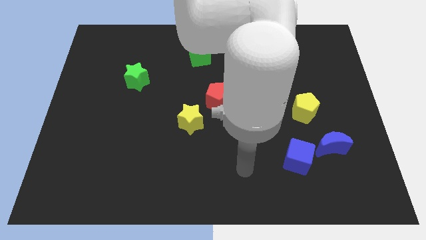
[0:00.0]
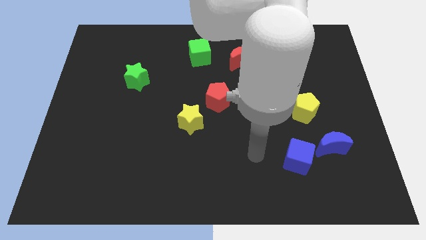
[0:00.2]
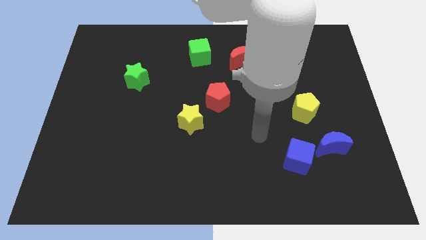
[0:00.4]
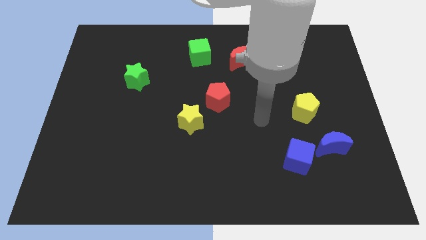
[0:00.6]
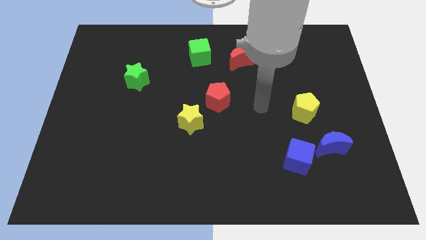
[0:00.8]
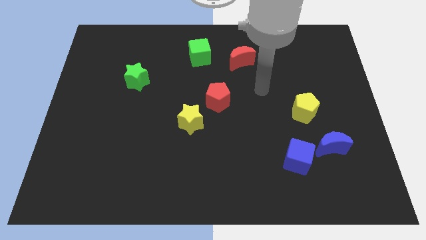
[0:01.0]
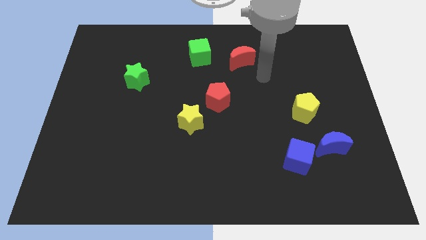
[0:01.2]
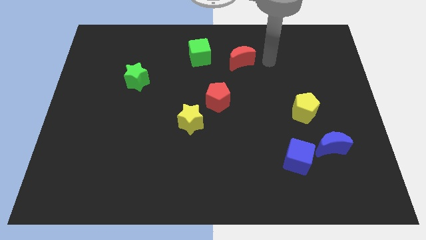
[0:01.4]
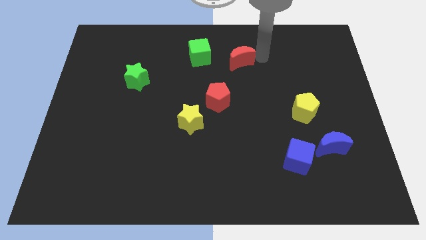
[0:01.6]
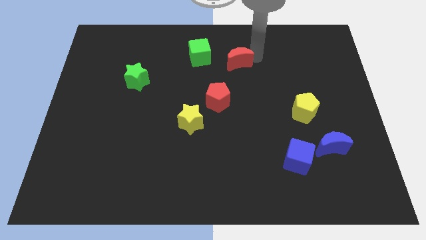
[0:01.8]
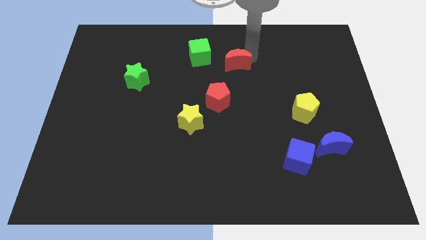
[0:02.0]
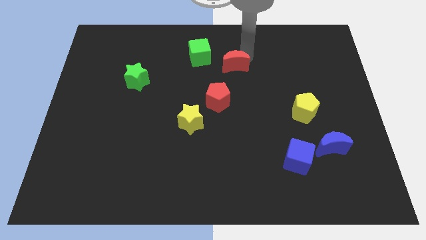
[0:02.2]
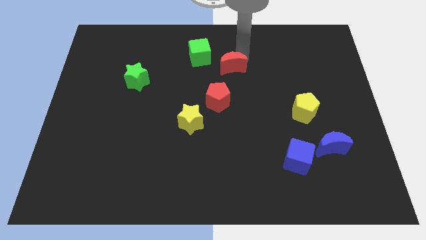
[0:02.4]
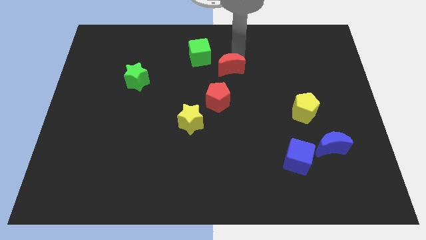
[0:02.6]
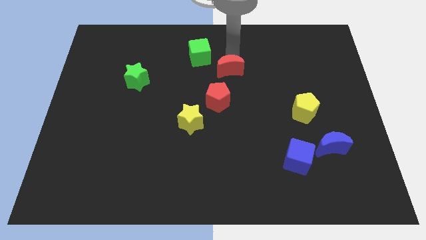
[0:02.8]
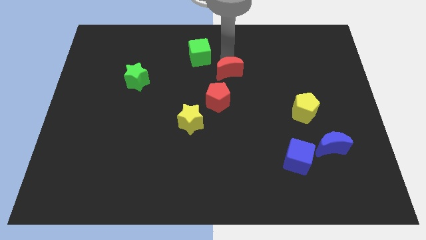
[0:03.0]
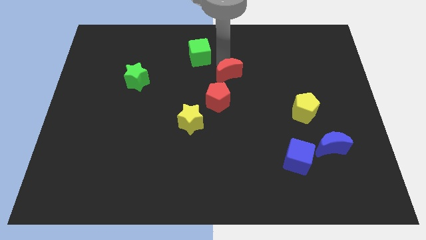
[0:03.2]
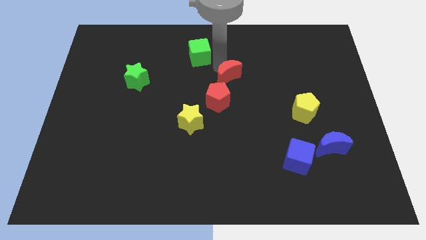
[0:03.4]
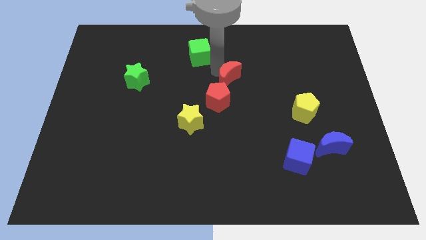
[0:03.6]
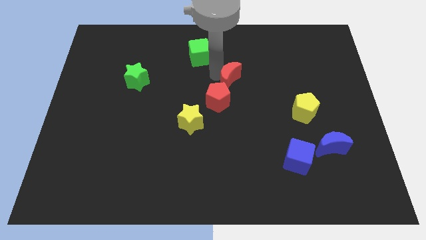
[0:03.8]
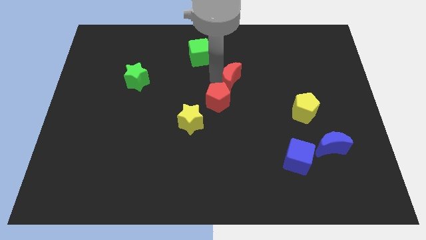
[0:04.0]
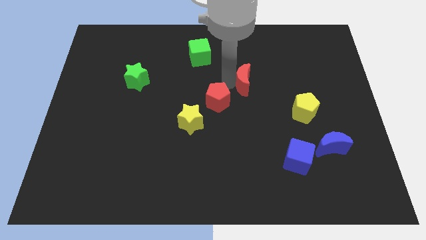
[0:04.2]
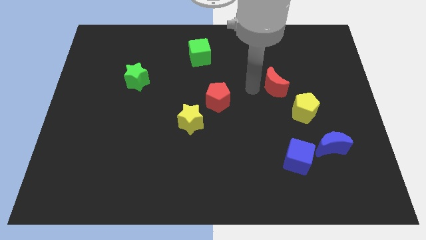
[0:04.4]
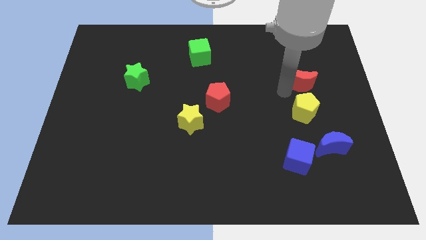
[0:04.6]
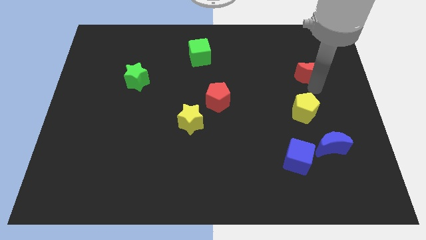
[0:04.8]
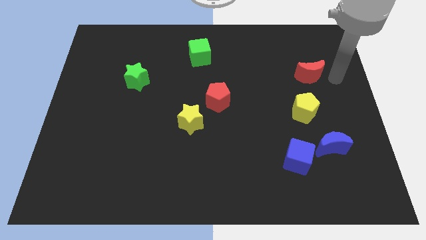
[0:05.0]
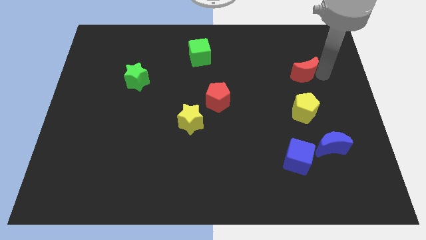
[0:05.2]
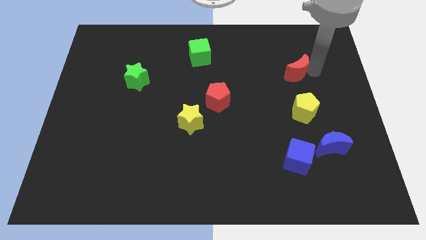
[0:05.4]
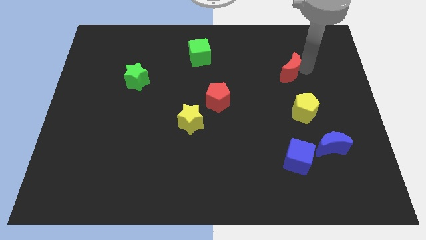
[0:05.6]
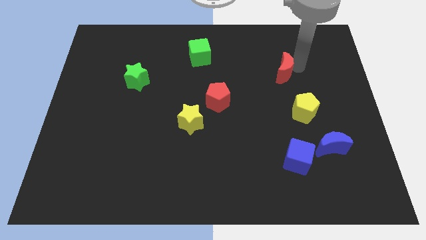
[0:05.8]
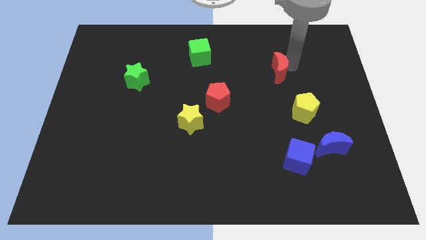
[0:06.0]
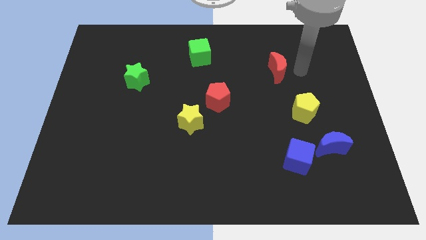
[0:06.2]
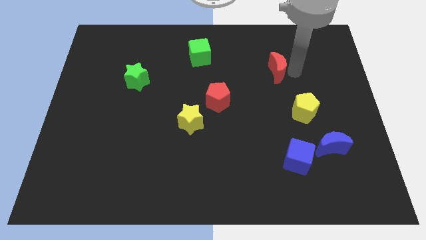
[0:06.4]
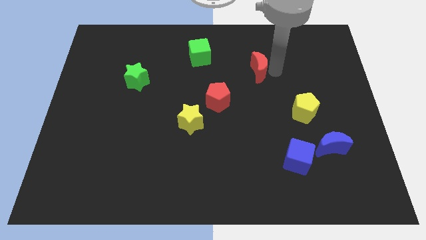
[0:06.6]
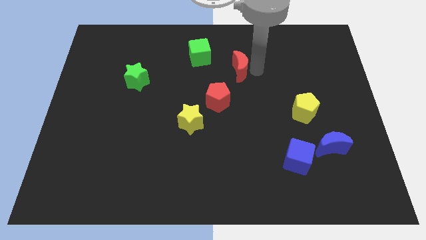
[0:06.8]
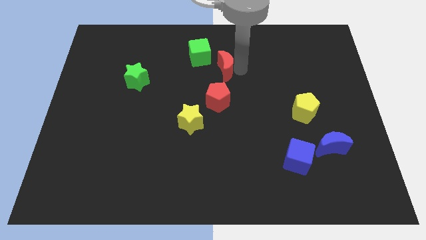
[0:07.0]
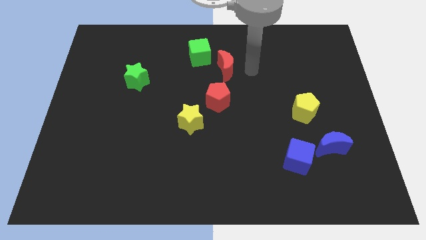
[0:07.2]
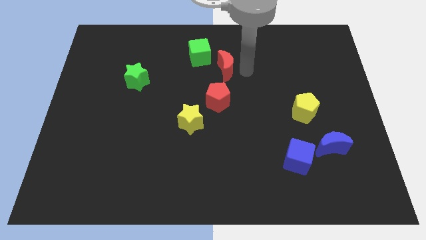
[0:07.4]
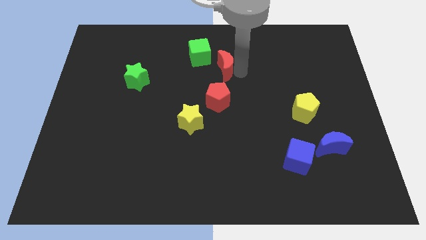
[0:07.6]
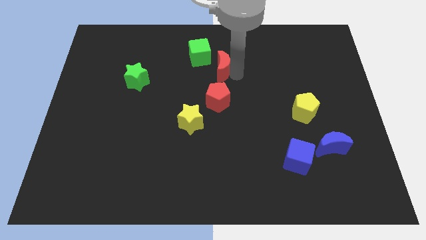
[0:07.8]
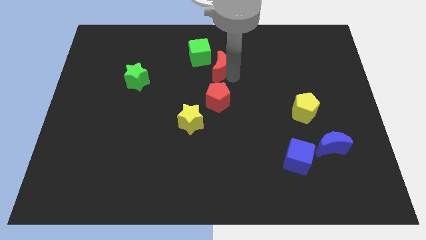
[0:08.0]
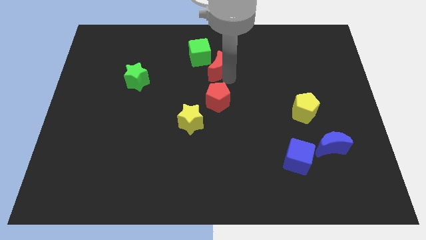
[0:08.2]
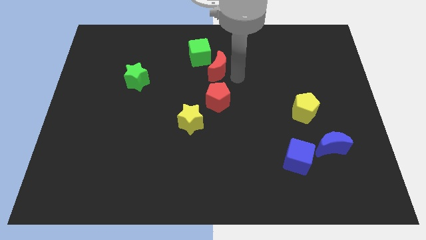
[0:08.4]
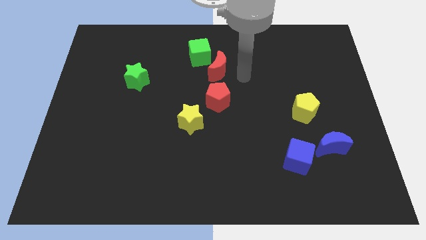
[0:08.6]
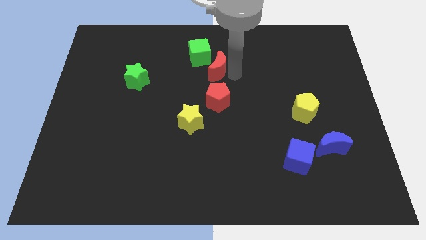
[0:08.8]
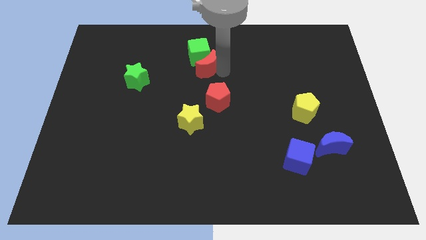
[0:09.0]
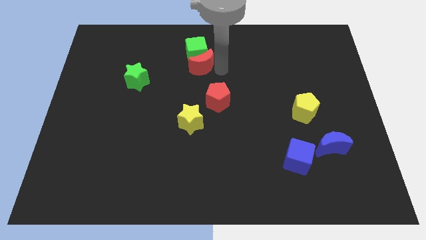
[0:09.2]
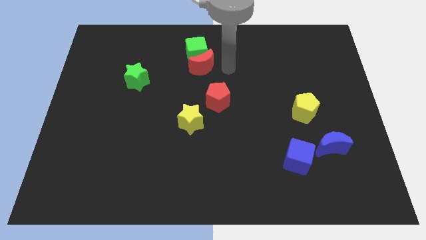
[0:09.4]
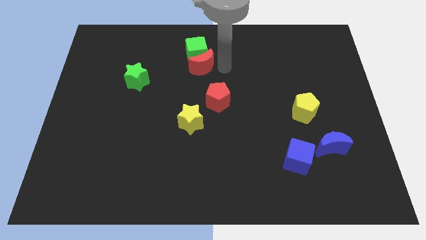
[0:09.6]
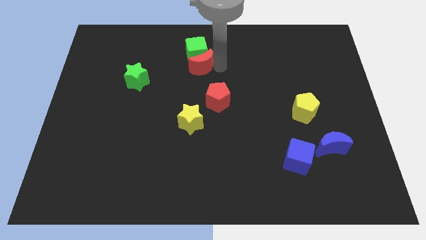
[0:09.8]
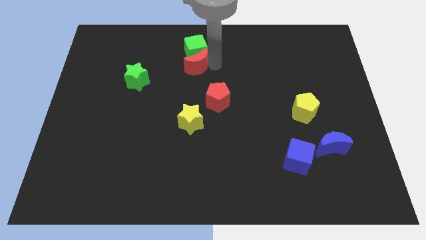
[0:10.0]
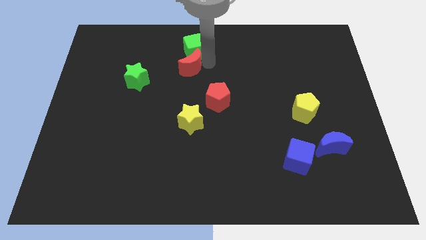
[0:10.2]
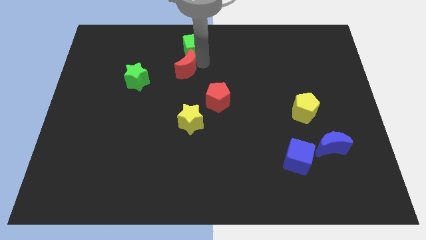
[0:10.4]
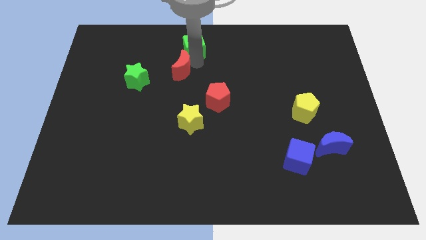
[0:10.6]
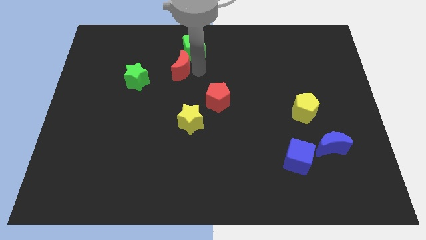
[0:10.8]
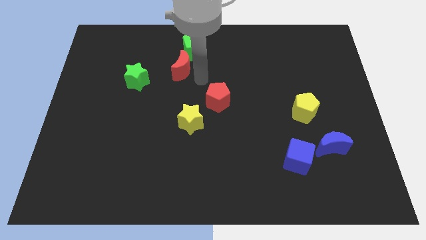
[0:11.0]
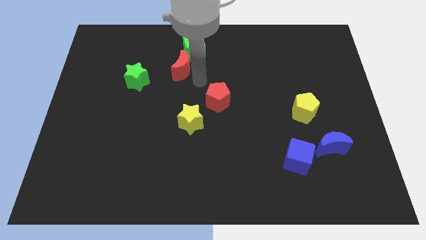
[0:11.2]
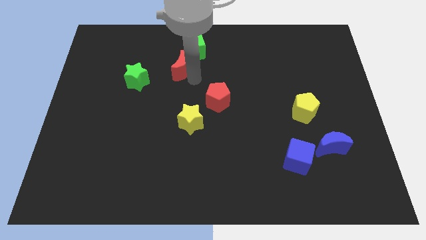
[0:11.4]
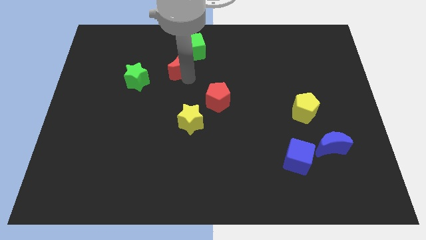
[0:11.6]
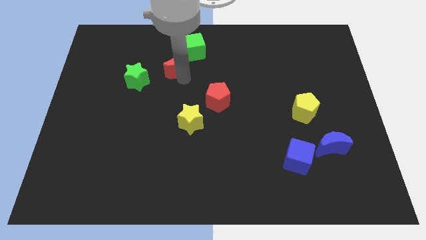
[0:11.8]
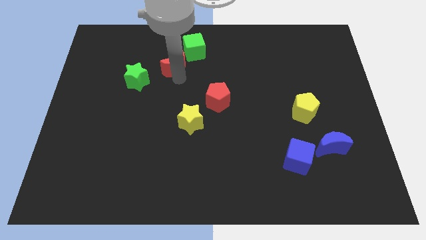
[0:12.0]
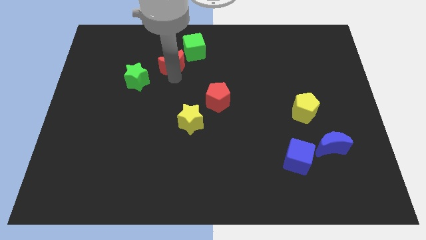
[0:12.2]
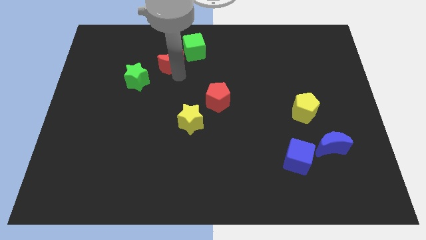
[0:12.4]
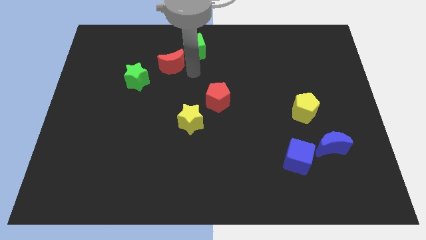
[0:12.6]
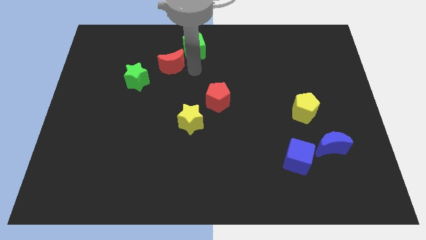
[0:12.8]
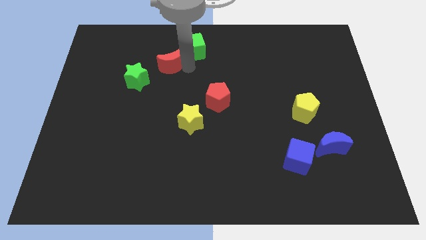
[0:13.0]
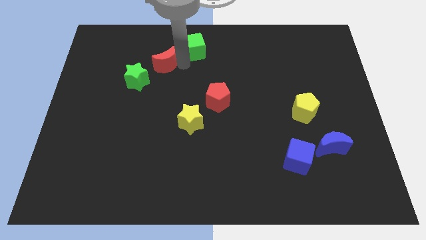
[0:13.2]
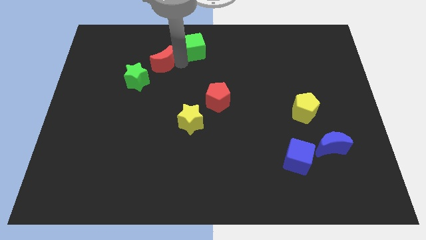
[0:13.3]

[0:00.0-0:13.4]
slide the red moon left

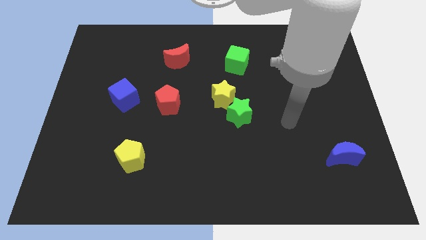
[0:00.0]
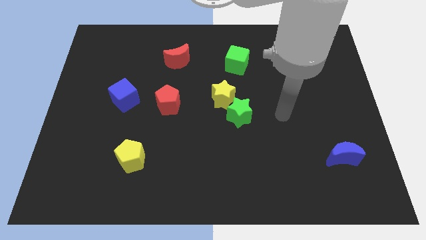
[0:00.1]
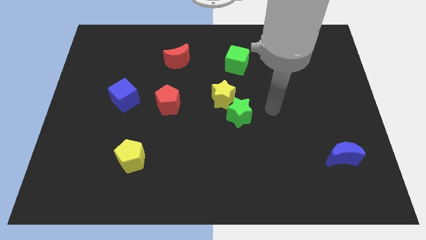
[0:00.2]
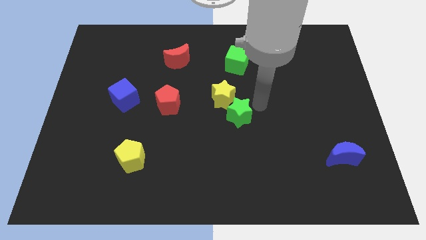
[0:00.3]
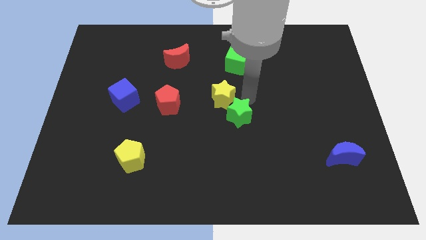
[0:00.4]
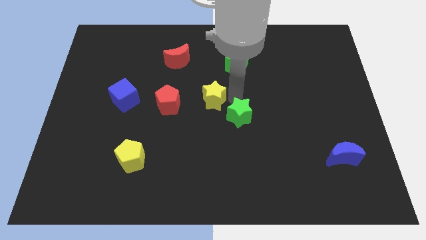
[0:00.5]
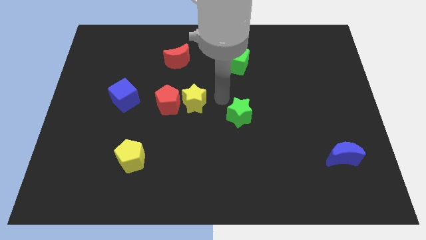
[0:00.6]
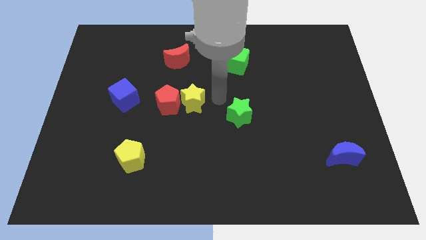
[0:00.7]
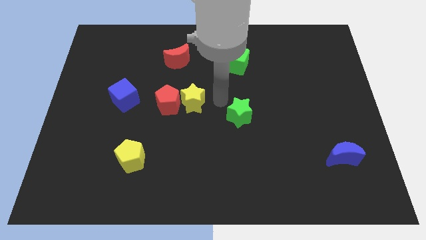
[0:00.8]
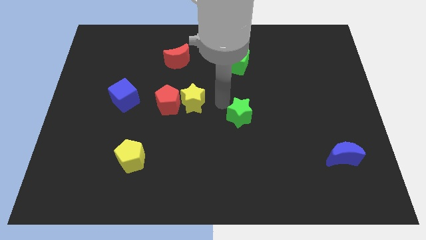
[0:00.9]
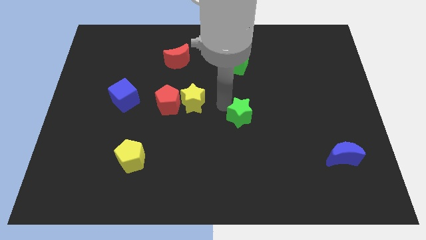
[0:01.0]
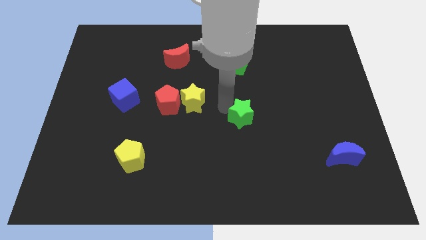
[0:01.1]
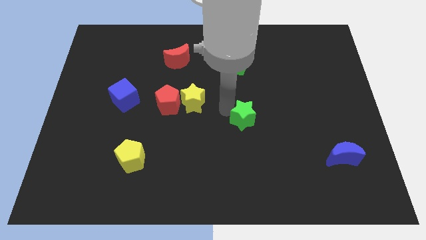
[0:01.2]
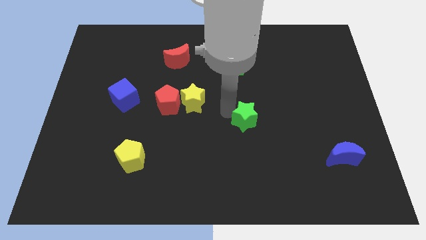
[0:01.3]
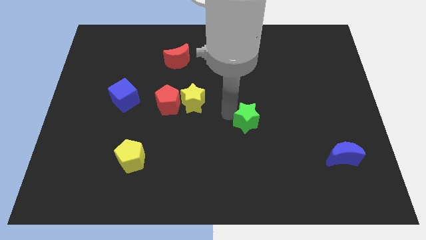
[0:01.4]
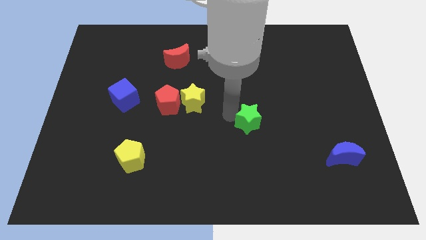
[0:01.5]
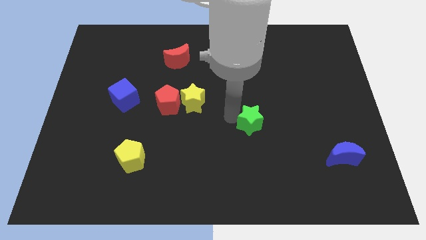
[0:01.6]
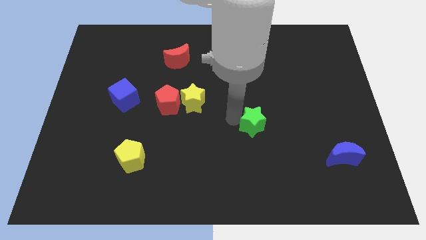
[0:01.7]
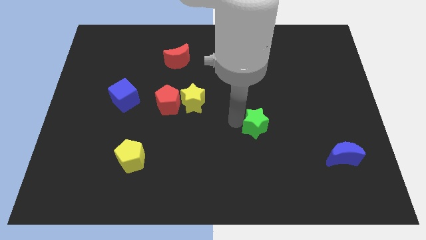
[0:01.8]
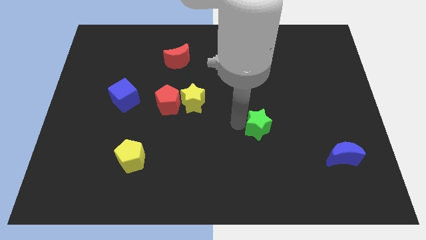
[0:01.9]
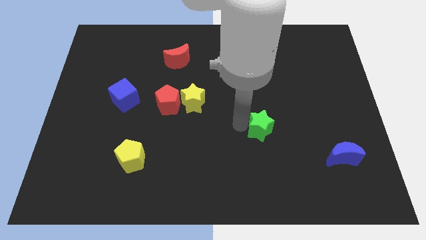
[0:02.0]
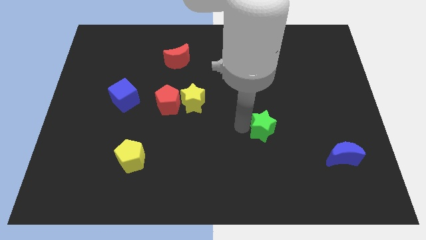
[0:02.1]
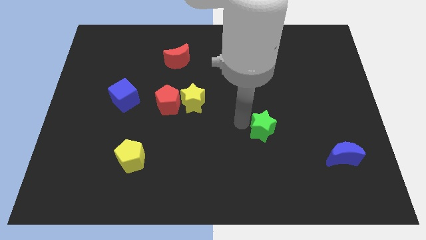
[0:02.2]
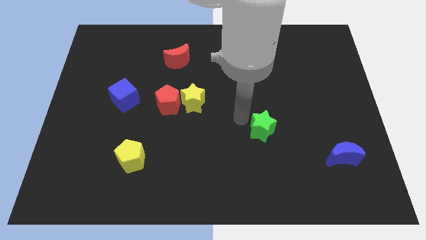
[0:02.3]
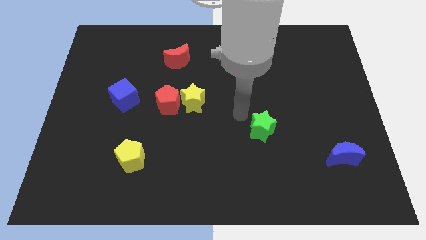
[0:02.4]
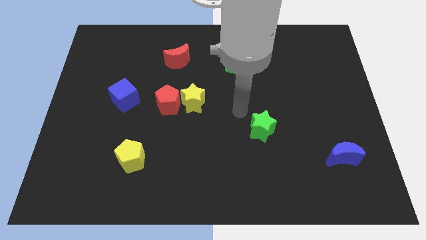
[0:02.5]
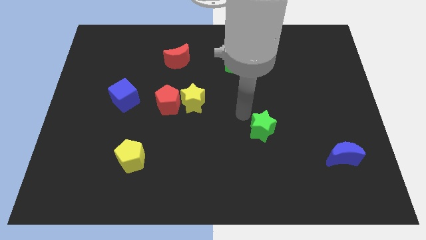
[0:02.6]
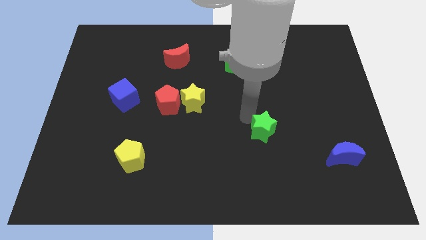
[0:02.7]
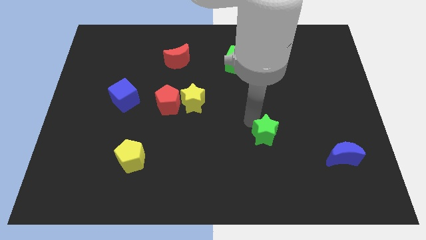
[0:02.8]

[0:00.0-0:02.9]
slide the green star a bit downwards and right diagonally
